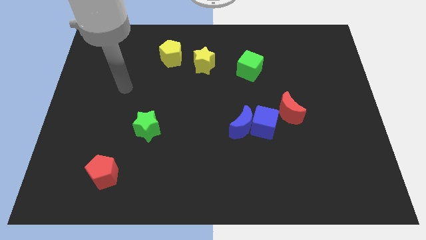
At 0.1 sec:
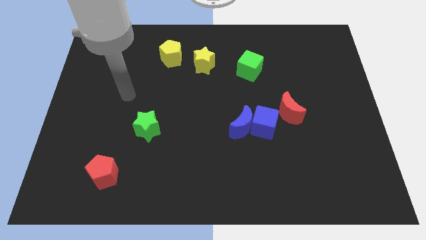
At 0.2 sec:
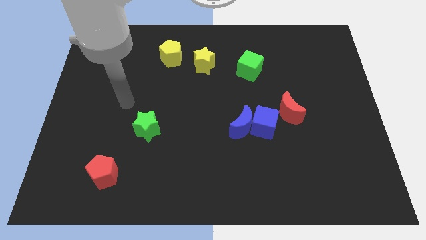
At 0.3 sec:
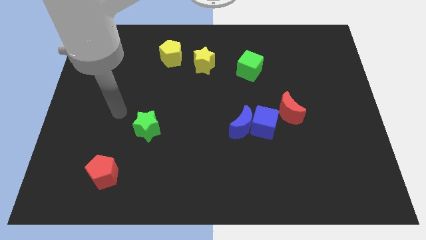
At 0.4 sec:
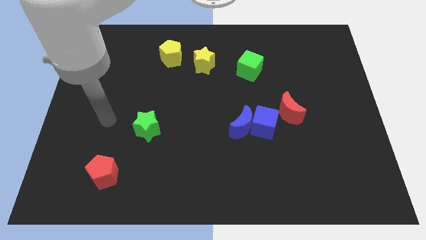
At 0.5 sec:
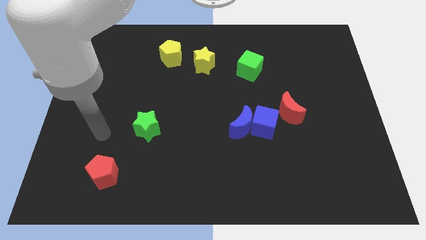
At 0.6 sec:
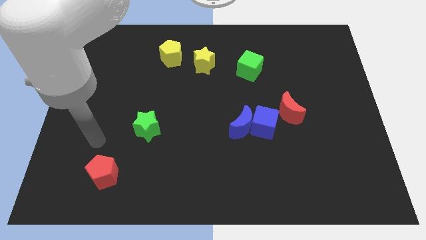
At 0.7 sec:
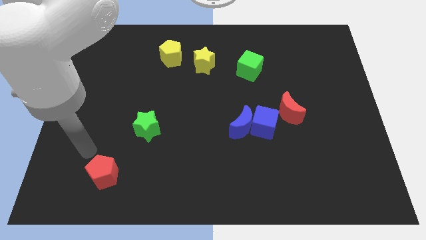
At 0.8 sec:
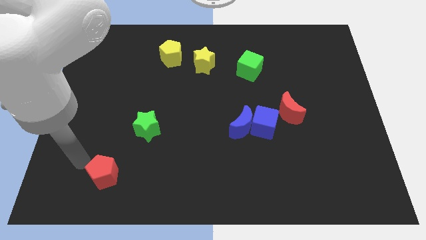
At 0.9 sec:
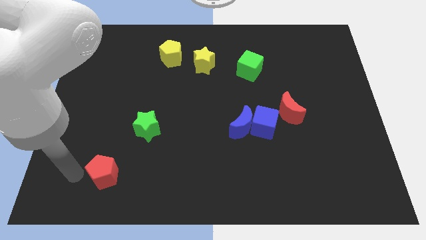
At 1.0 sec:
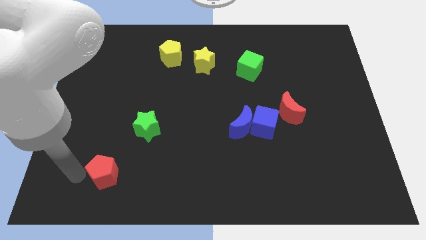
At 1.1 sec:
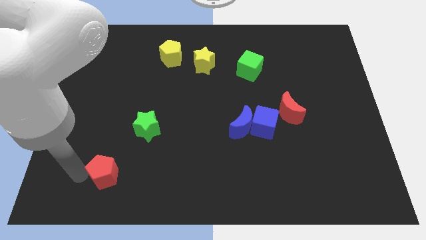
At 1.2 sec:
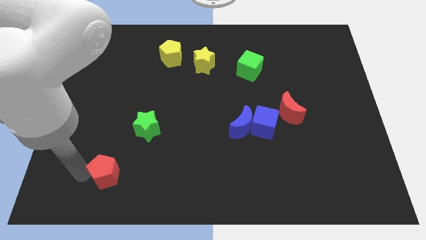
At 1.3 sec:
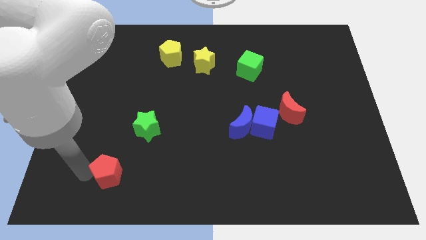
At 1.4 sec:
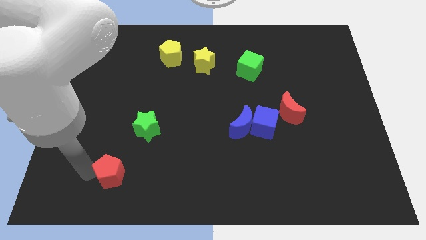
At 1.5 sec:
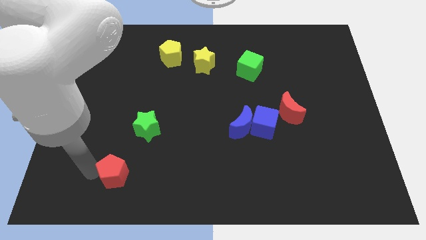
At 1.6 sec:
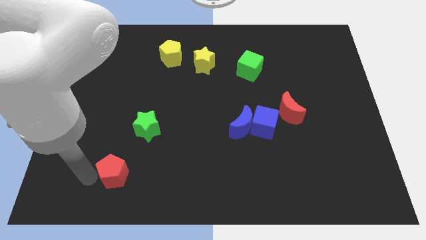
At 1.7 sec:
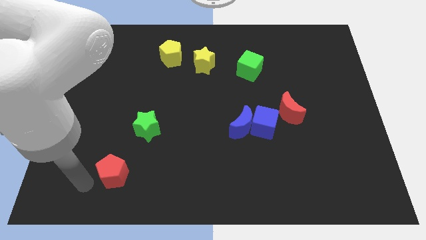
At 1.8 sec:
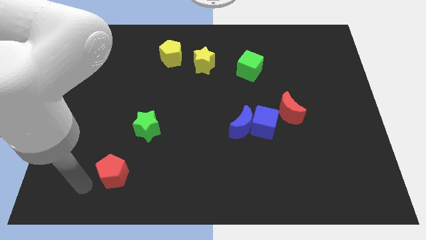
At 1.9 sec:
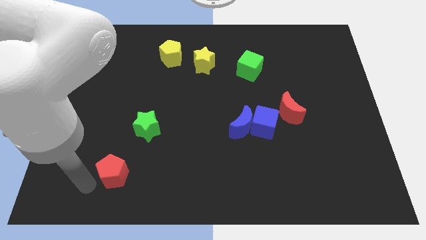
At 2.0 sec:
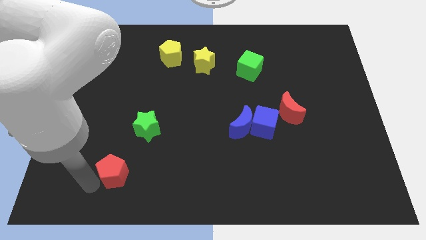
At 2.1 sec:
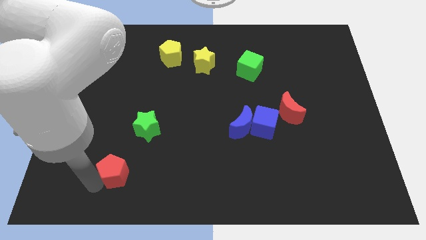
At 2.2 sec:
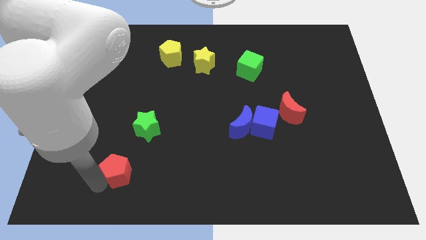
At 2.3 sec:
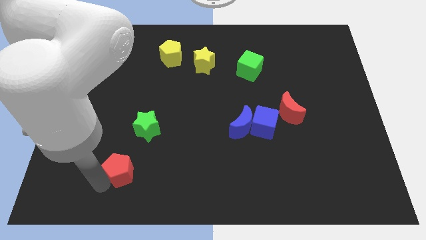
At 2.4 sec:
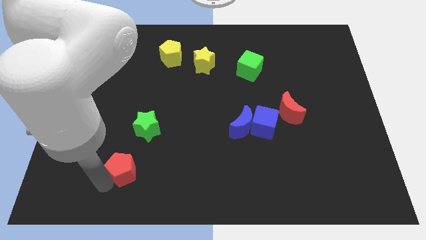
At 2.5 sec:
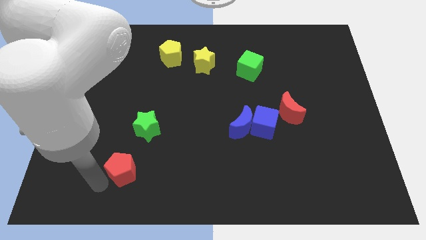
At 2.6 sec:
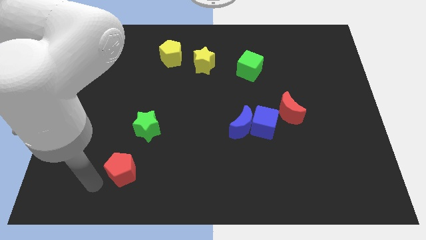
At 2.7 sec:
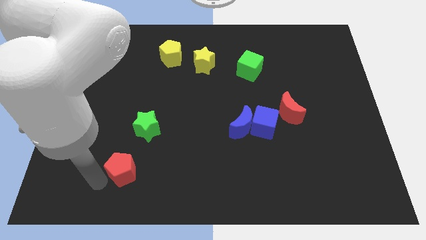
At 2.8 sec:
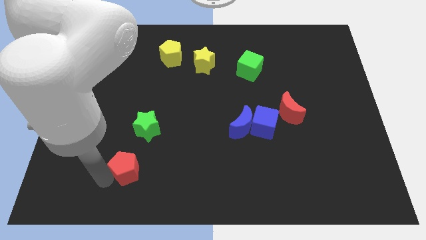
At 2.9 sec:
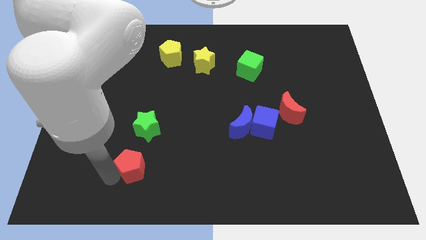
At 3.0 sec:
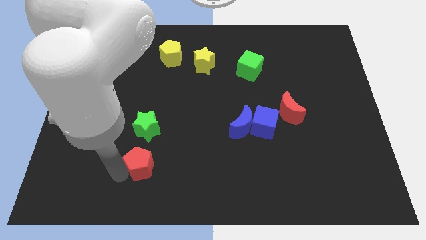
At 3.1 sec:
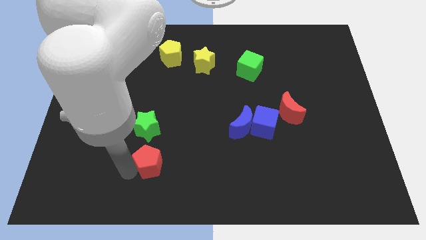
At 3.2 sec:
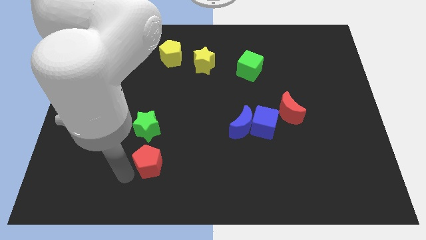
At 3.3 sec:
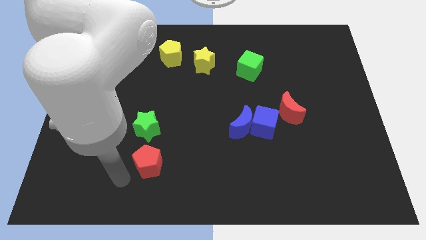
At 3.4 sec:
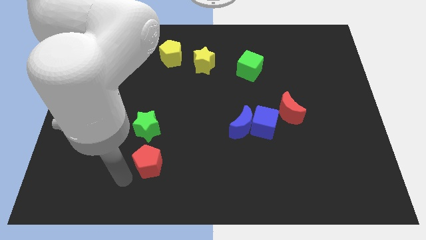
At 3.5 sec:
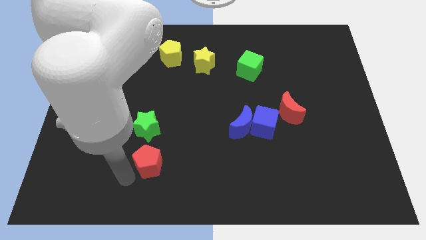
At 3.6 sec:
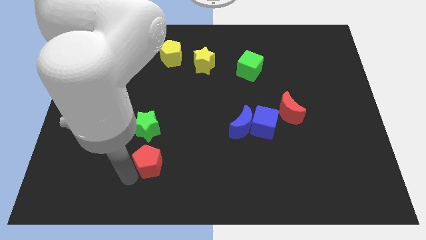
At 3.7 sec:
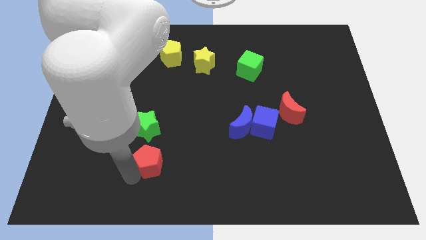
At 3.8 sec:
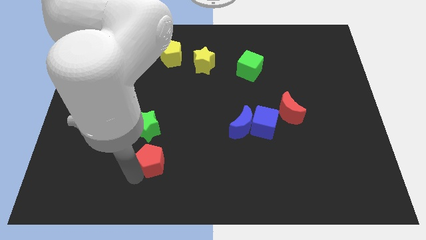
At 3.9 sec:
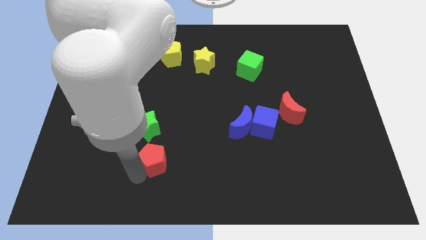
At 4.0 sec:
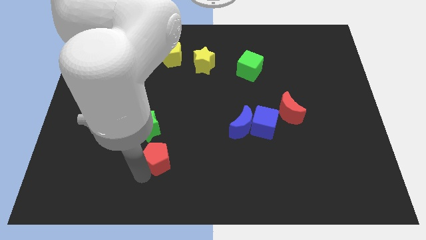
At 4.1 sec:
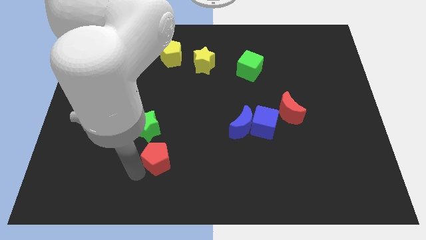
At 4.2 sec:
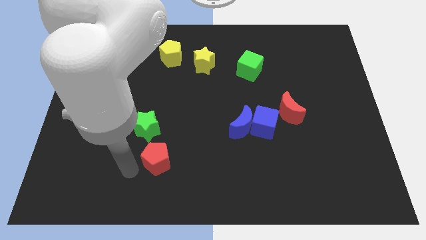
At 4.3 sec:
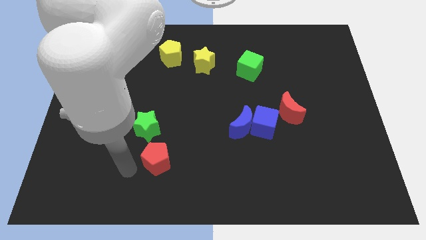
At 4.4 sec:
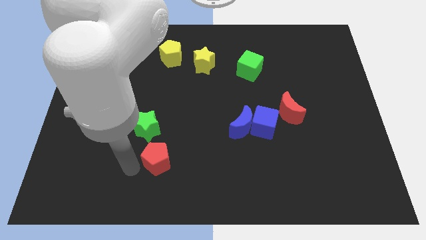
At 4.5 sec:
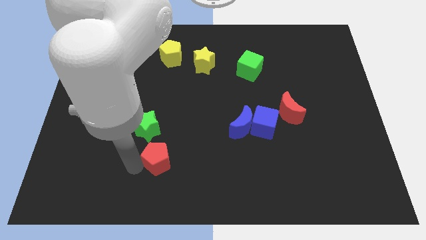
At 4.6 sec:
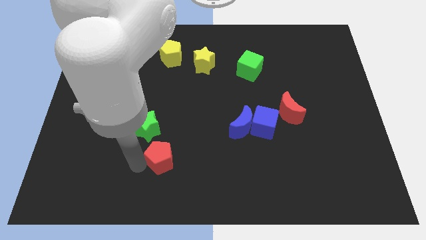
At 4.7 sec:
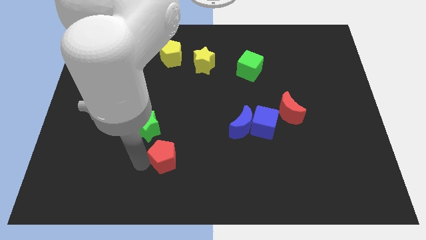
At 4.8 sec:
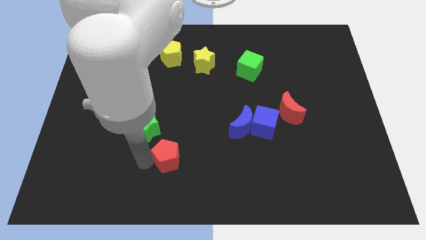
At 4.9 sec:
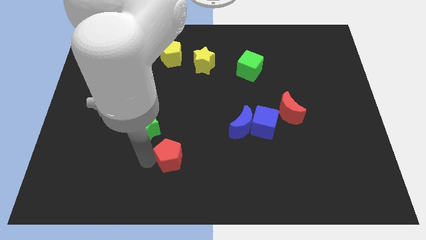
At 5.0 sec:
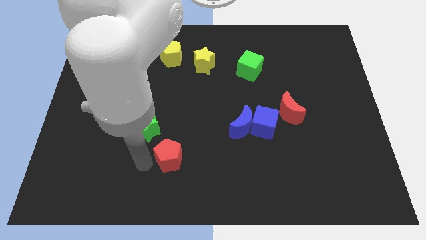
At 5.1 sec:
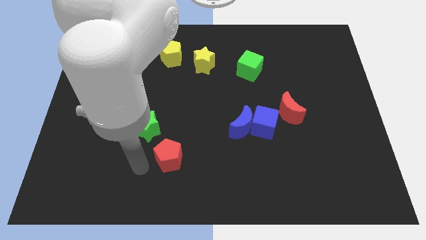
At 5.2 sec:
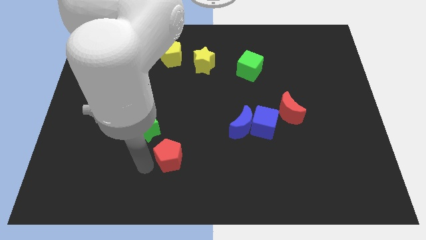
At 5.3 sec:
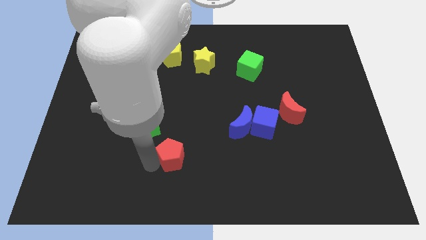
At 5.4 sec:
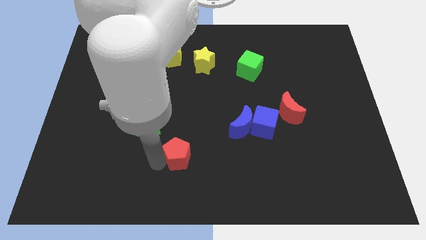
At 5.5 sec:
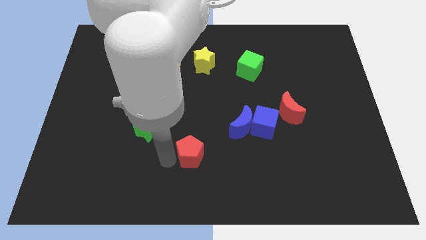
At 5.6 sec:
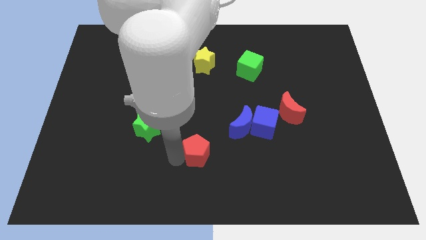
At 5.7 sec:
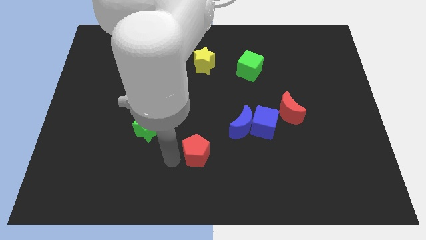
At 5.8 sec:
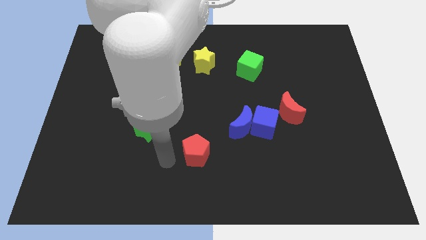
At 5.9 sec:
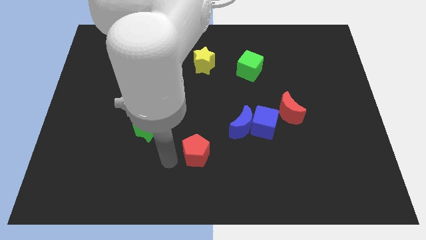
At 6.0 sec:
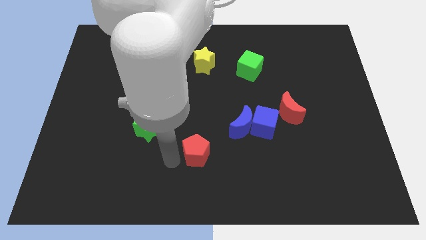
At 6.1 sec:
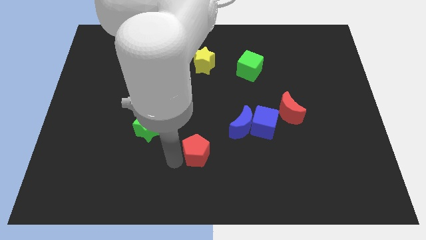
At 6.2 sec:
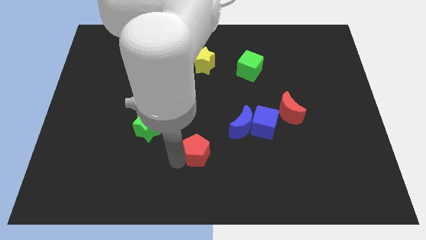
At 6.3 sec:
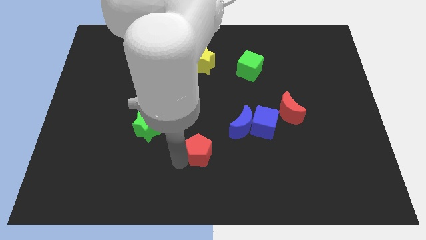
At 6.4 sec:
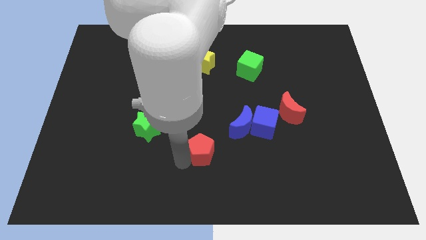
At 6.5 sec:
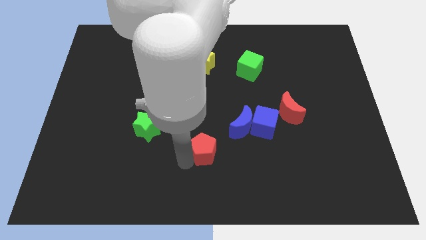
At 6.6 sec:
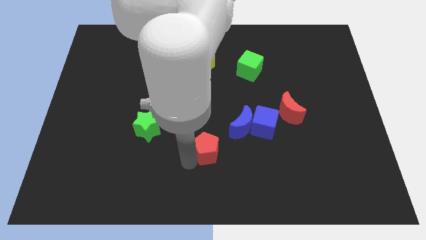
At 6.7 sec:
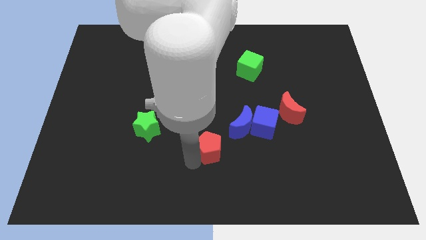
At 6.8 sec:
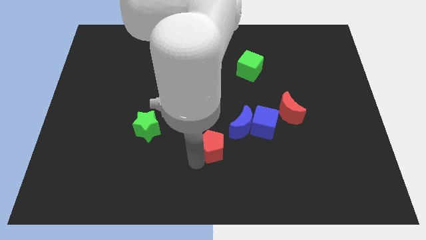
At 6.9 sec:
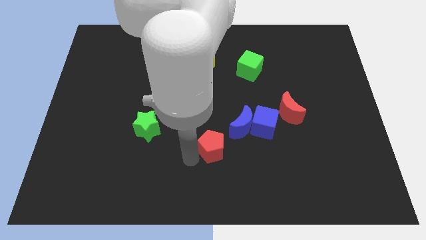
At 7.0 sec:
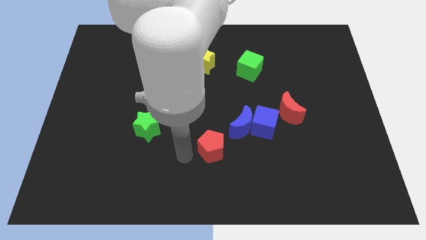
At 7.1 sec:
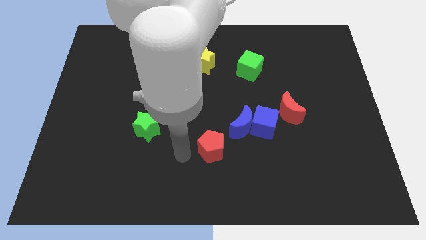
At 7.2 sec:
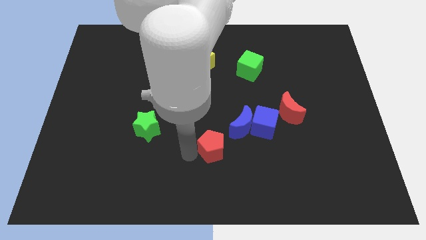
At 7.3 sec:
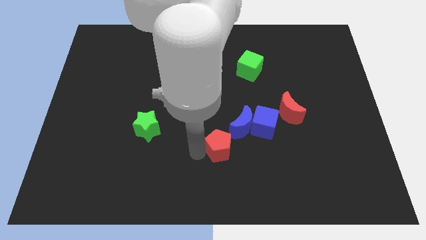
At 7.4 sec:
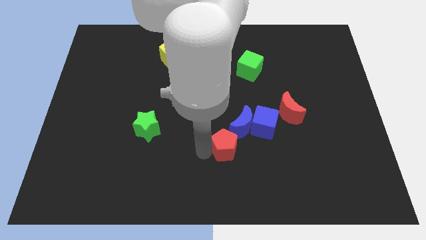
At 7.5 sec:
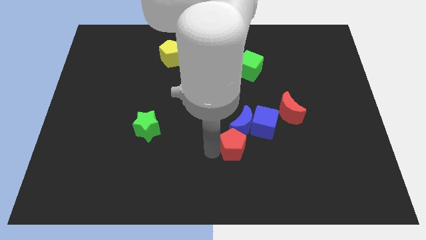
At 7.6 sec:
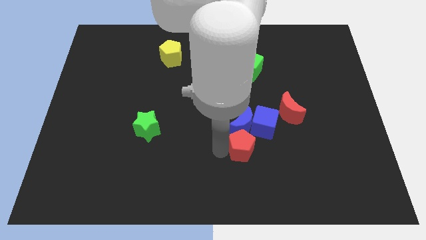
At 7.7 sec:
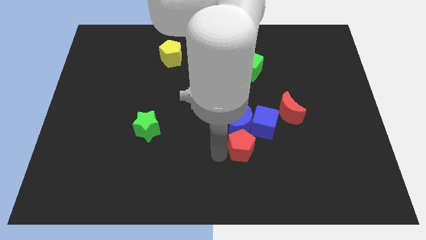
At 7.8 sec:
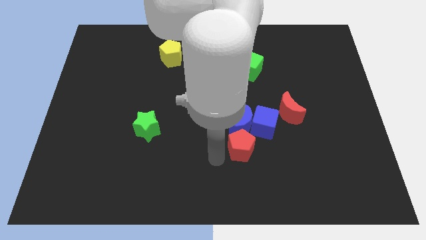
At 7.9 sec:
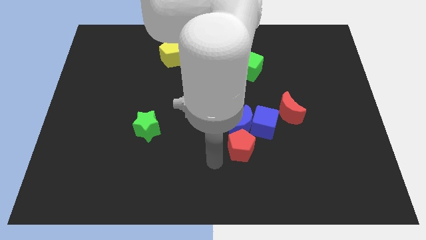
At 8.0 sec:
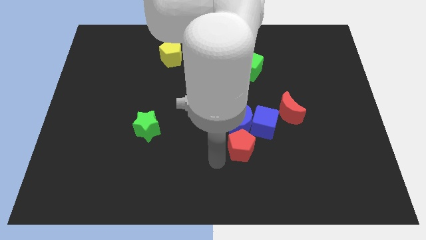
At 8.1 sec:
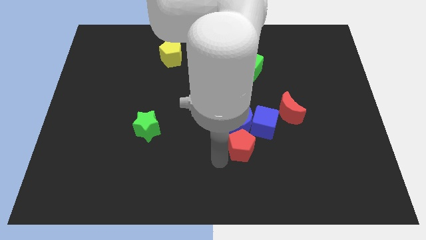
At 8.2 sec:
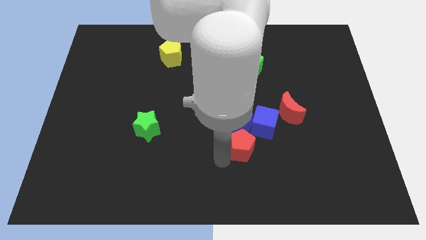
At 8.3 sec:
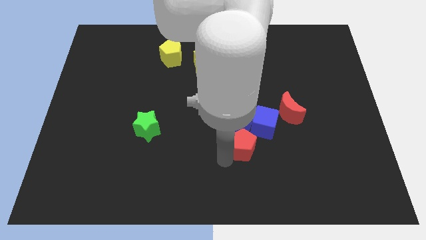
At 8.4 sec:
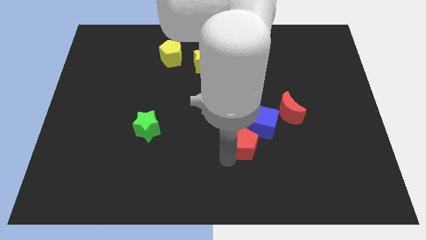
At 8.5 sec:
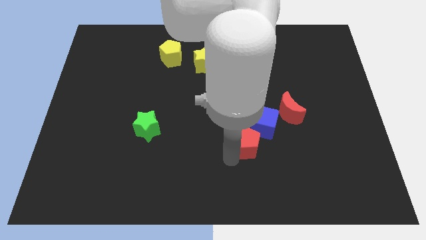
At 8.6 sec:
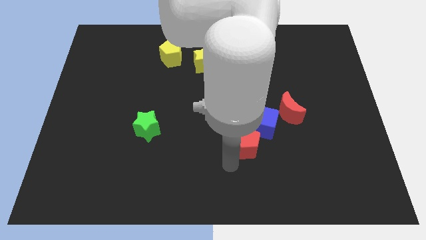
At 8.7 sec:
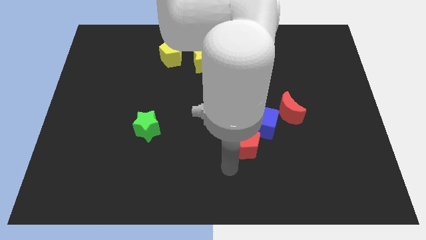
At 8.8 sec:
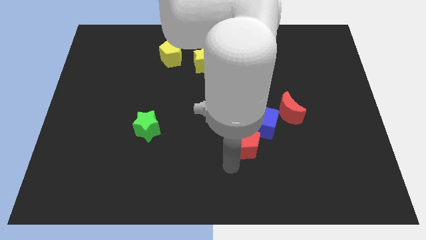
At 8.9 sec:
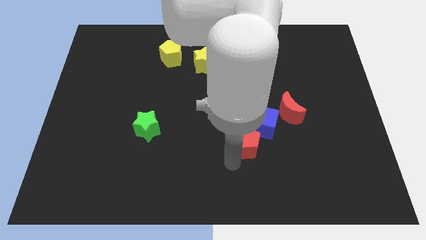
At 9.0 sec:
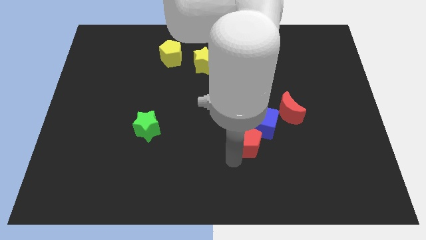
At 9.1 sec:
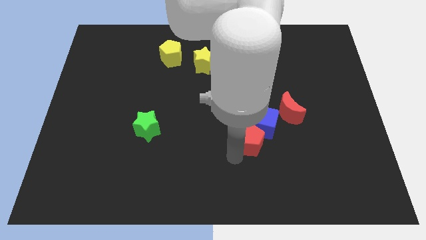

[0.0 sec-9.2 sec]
push the red pentagon towards the blue cube
